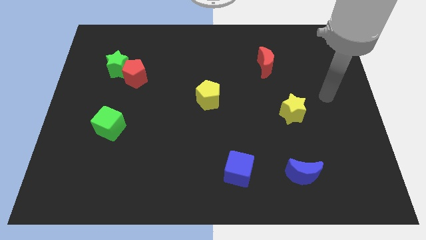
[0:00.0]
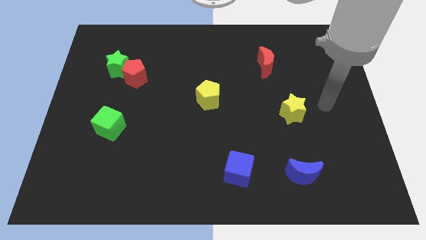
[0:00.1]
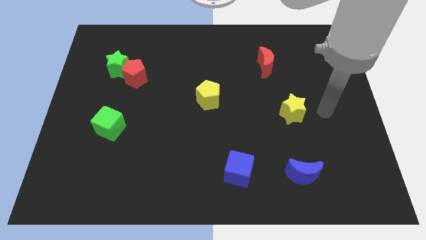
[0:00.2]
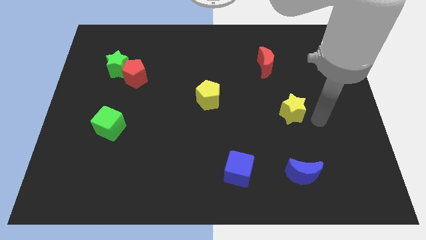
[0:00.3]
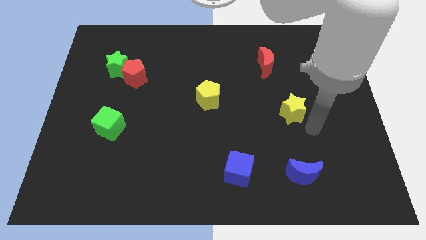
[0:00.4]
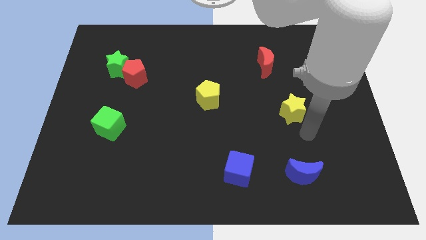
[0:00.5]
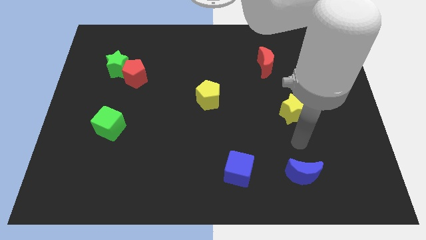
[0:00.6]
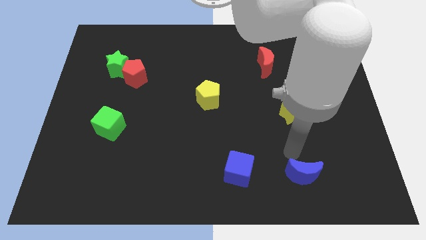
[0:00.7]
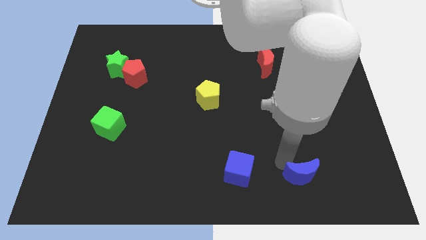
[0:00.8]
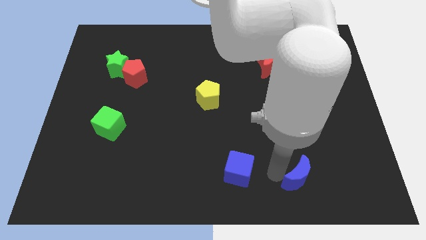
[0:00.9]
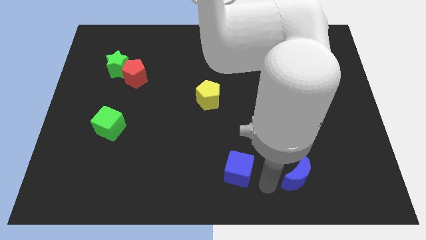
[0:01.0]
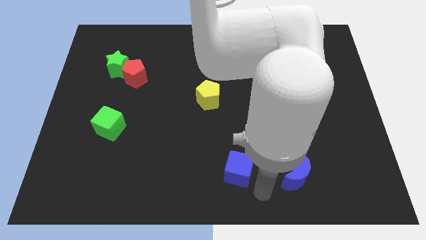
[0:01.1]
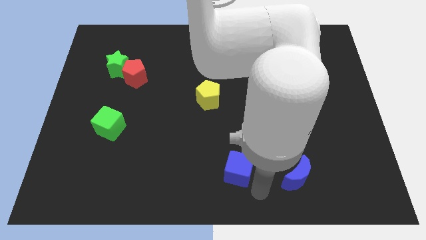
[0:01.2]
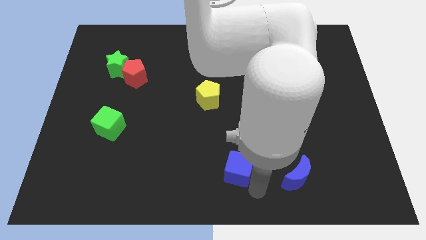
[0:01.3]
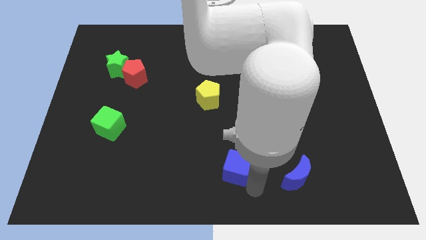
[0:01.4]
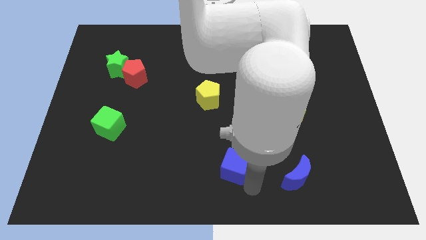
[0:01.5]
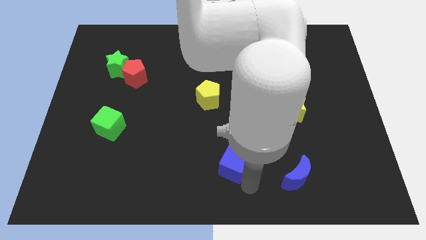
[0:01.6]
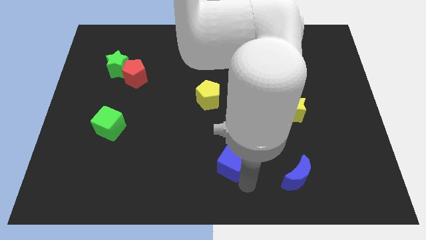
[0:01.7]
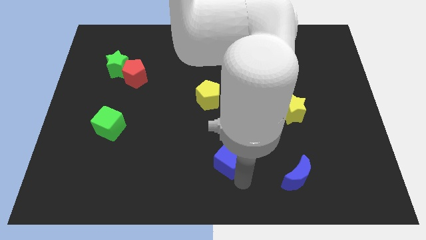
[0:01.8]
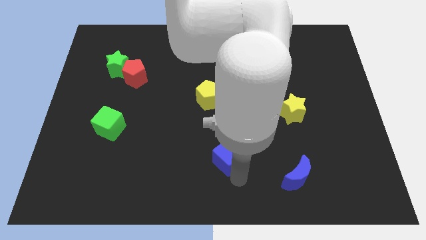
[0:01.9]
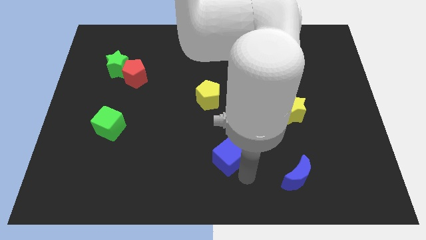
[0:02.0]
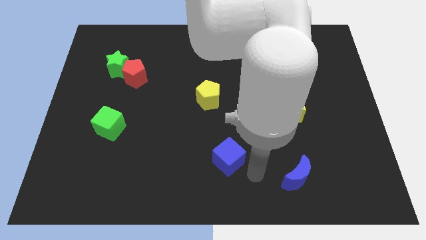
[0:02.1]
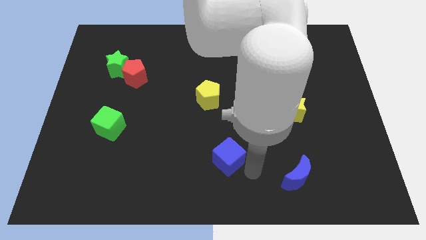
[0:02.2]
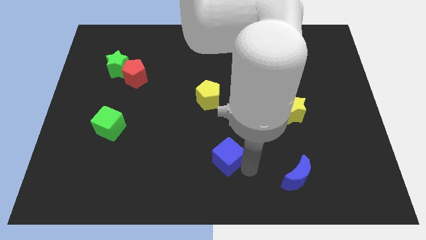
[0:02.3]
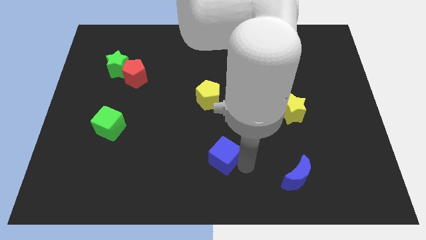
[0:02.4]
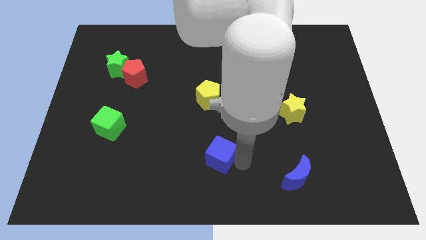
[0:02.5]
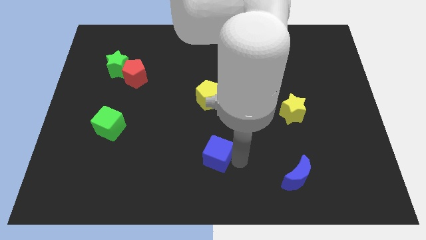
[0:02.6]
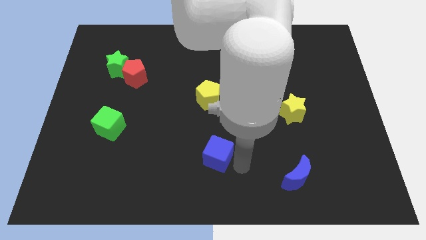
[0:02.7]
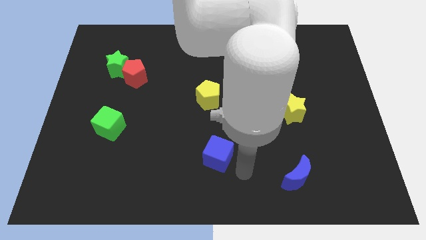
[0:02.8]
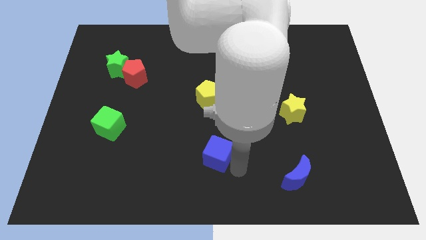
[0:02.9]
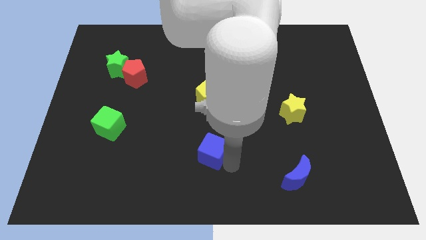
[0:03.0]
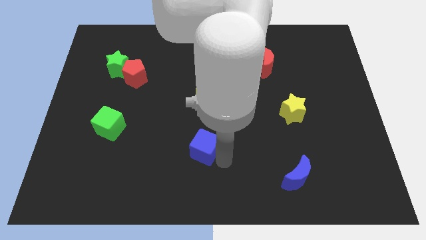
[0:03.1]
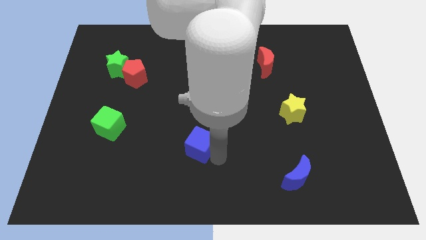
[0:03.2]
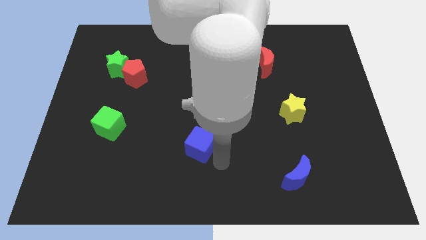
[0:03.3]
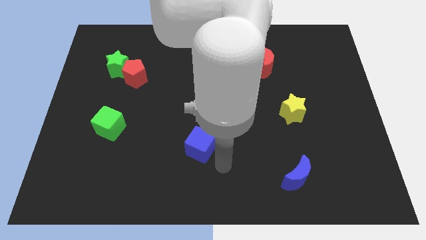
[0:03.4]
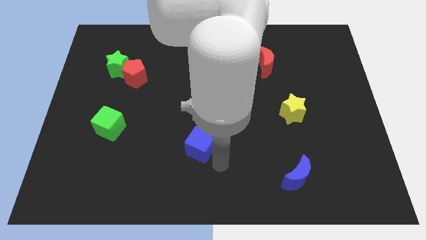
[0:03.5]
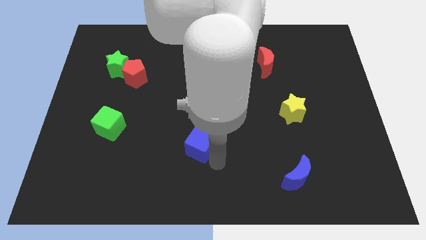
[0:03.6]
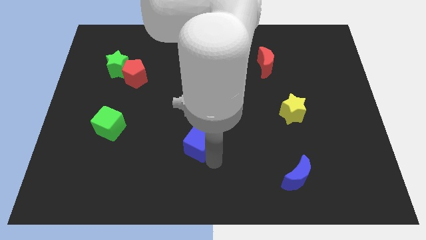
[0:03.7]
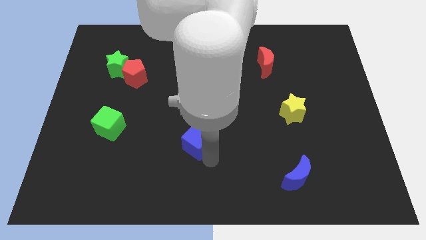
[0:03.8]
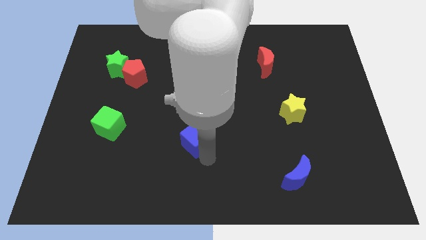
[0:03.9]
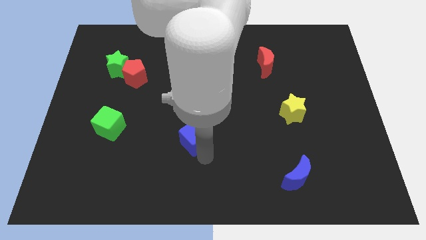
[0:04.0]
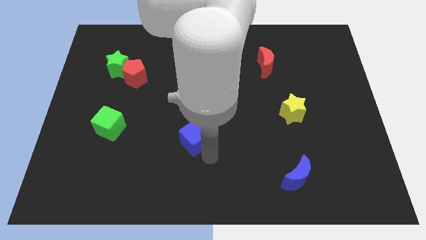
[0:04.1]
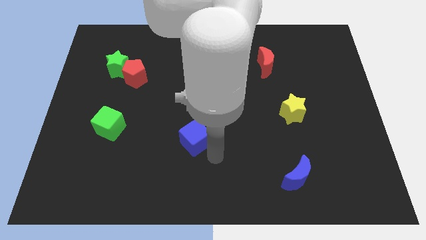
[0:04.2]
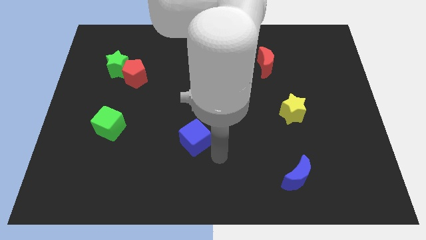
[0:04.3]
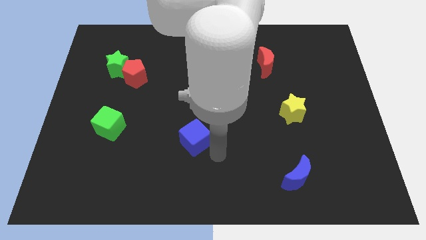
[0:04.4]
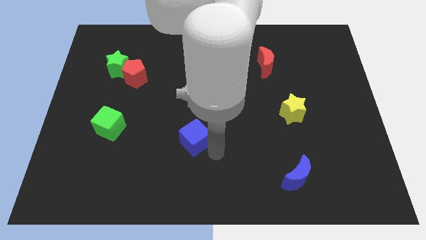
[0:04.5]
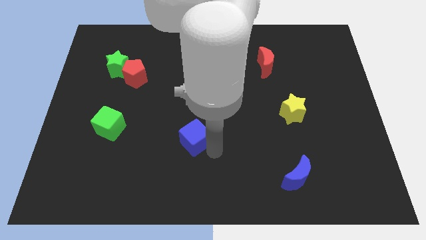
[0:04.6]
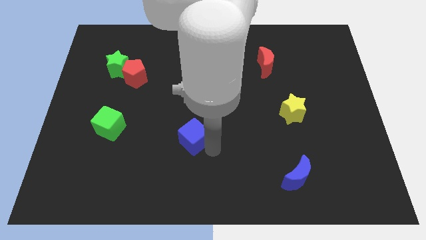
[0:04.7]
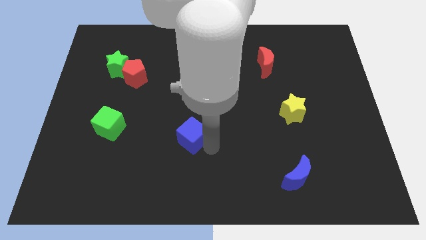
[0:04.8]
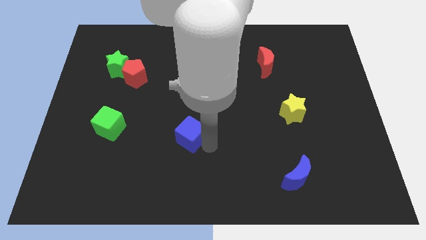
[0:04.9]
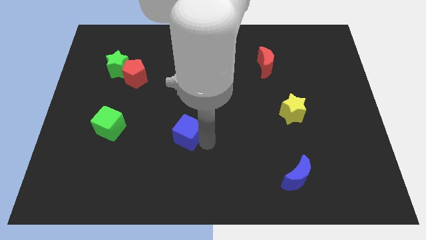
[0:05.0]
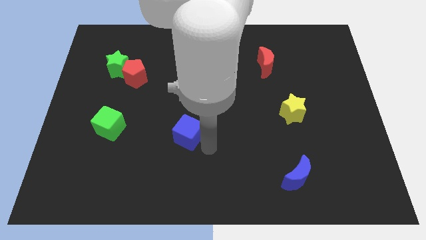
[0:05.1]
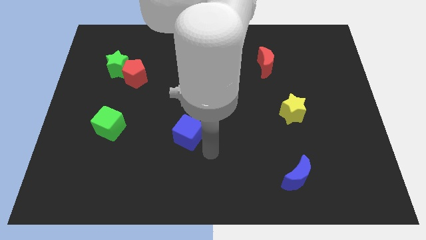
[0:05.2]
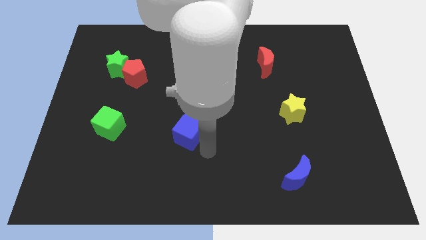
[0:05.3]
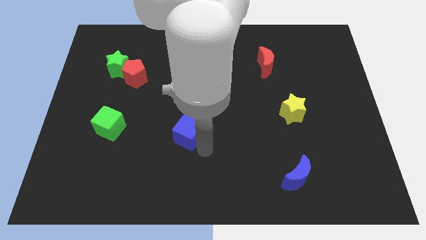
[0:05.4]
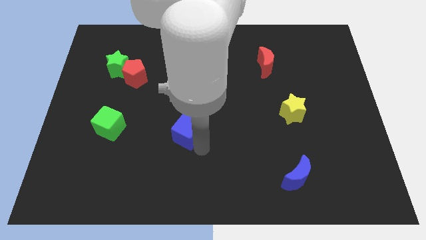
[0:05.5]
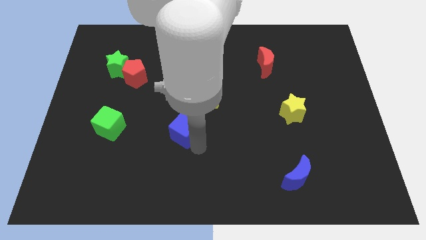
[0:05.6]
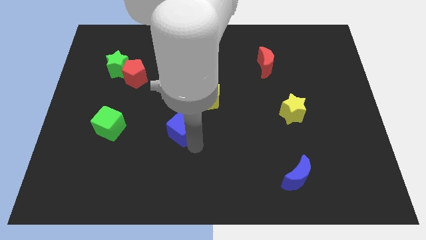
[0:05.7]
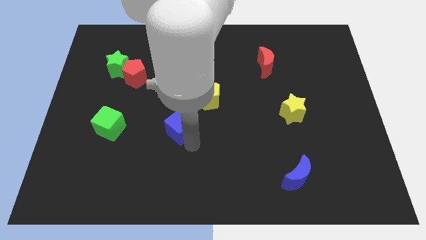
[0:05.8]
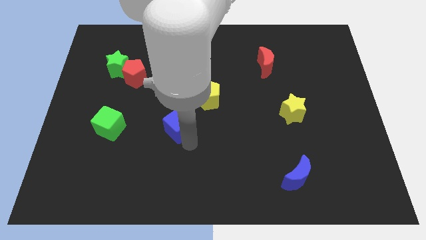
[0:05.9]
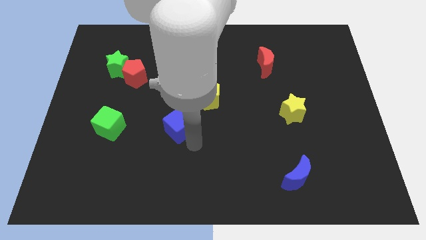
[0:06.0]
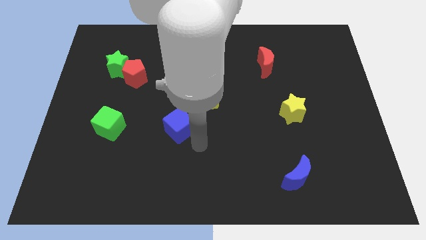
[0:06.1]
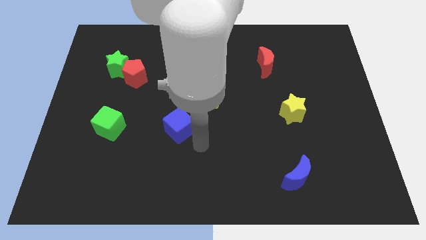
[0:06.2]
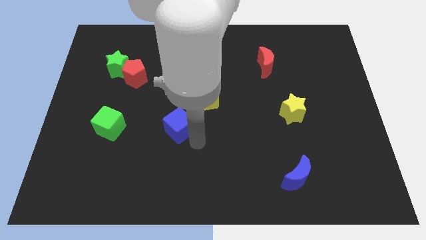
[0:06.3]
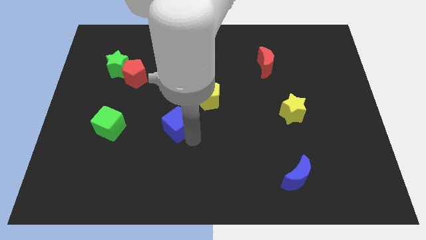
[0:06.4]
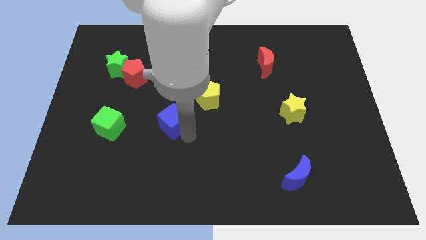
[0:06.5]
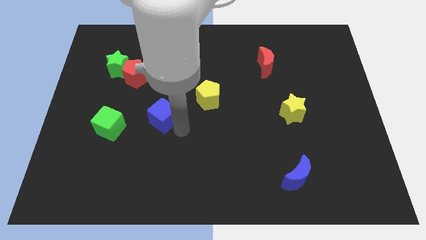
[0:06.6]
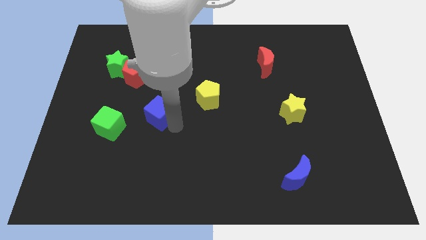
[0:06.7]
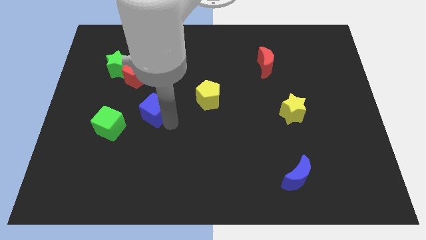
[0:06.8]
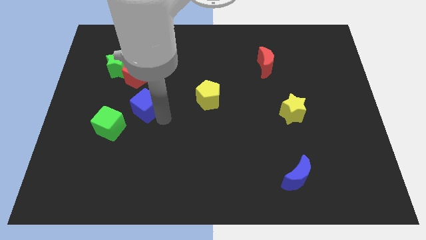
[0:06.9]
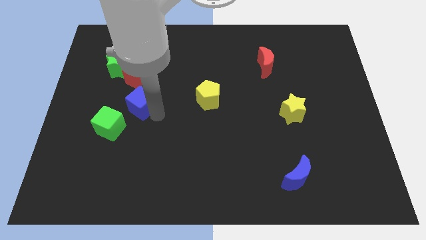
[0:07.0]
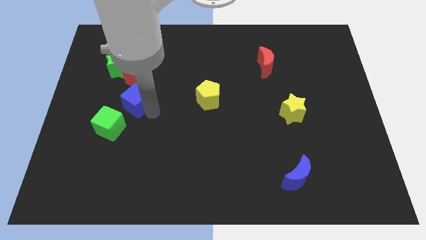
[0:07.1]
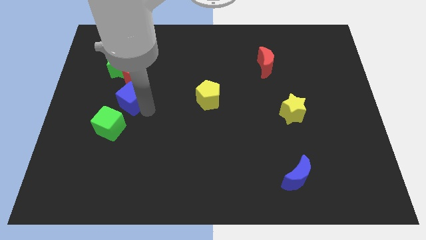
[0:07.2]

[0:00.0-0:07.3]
put the blue cube above the green cube
